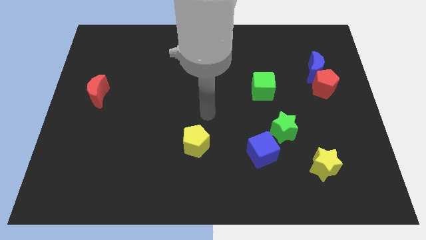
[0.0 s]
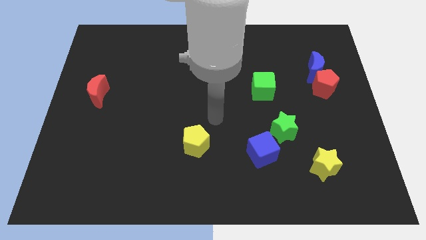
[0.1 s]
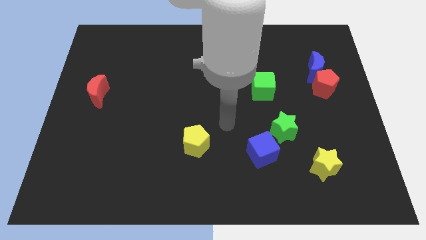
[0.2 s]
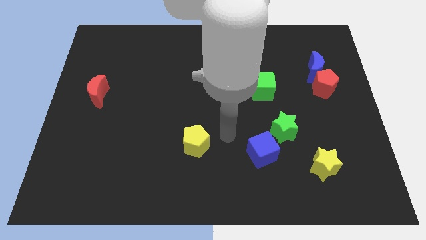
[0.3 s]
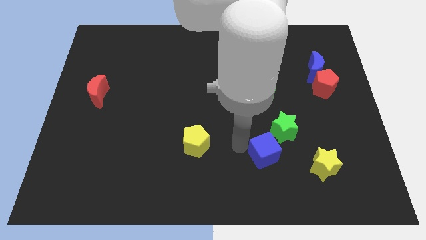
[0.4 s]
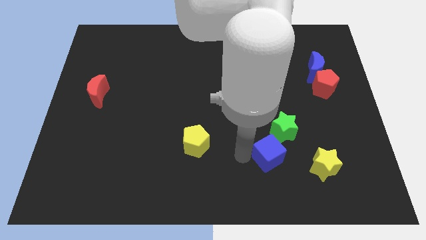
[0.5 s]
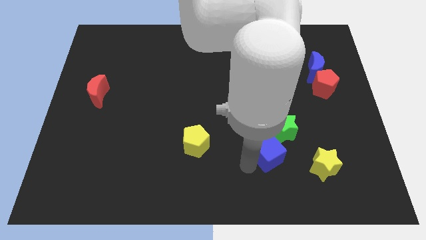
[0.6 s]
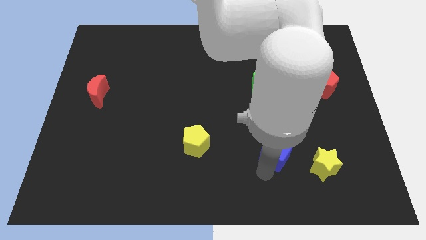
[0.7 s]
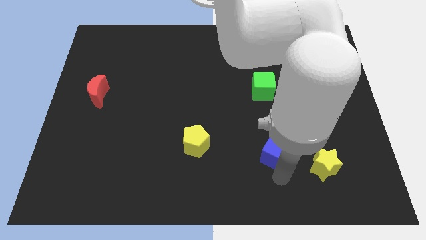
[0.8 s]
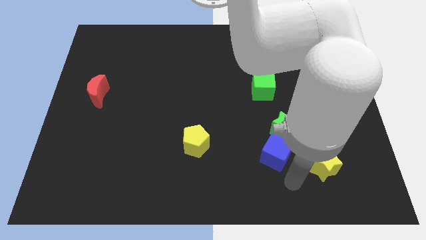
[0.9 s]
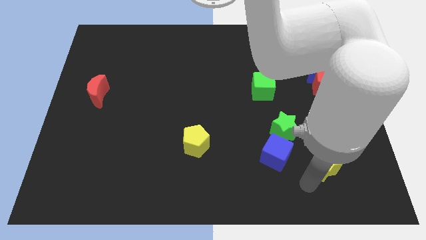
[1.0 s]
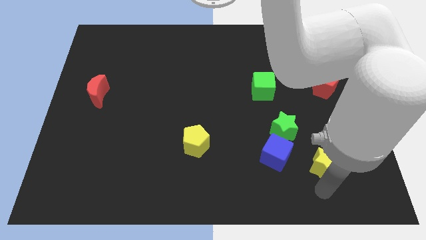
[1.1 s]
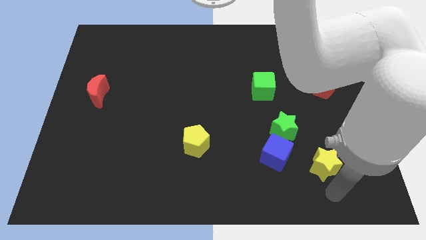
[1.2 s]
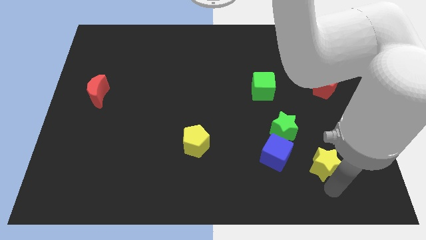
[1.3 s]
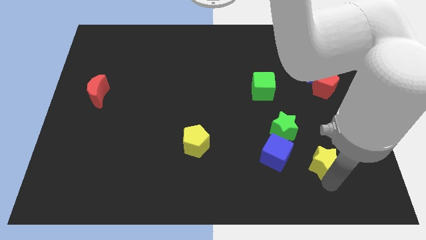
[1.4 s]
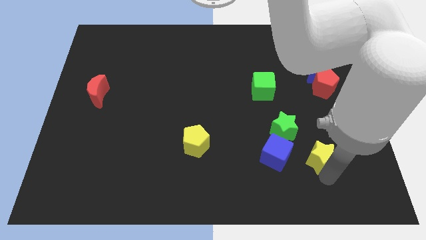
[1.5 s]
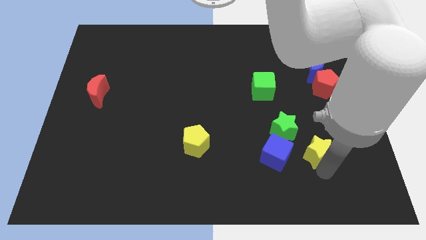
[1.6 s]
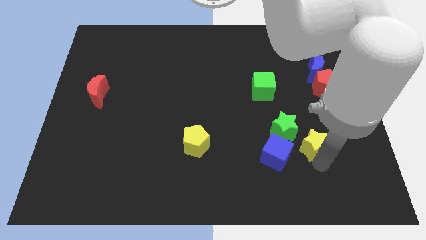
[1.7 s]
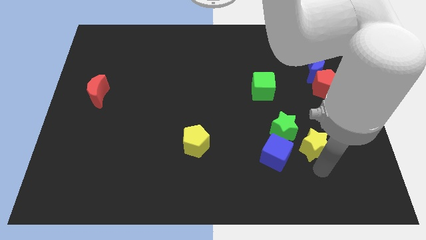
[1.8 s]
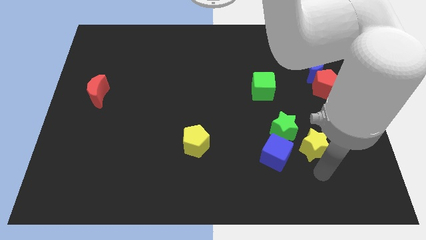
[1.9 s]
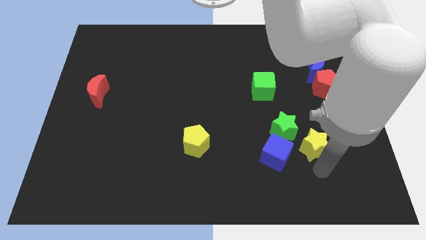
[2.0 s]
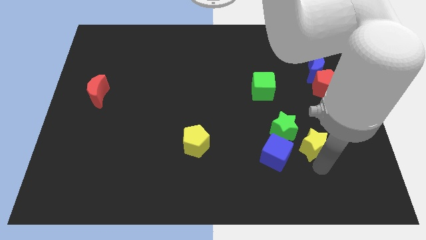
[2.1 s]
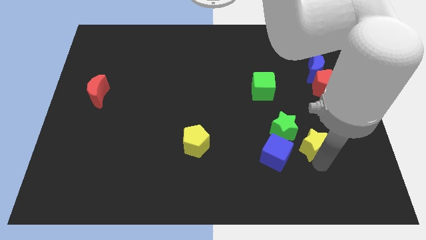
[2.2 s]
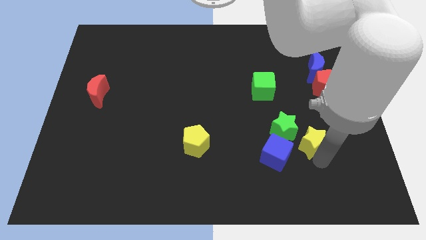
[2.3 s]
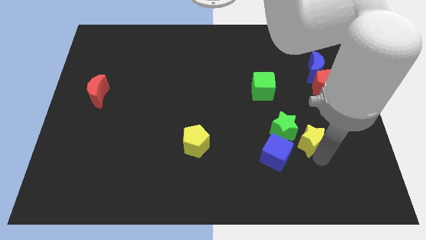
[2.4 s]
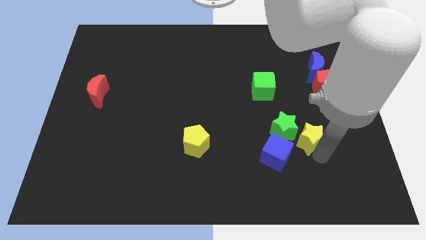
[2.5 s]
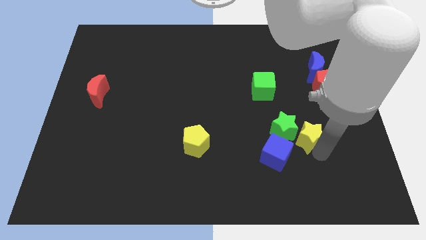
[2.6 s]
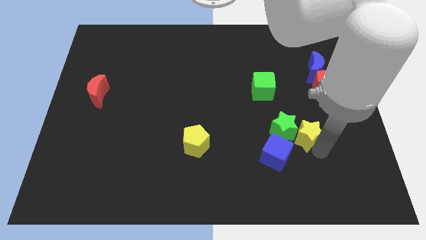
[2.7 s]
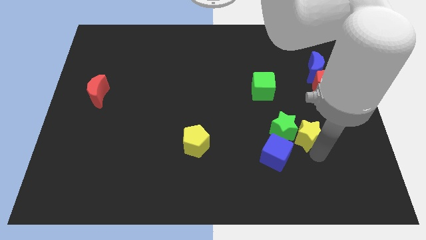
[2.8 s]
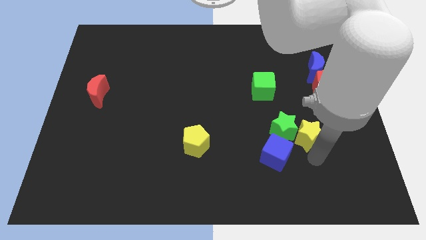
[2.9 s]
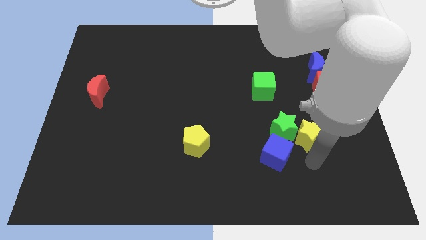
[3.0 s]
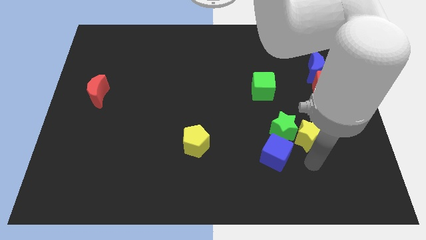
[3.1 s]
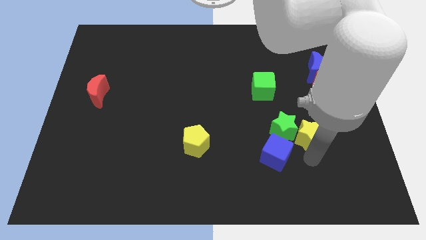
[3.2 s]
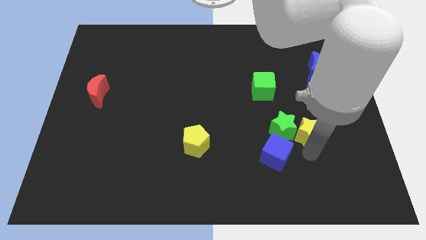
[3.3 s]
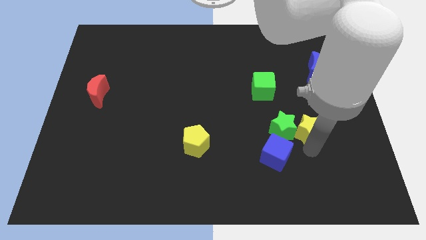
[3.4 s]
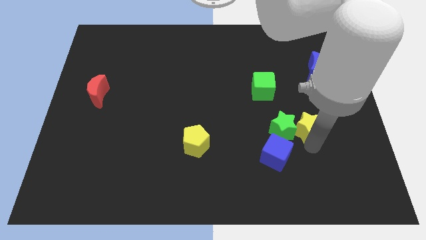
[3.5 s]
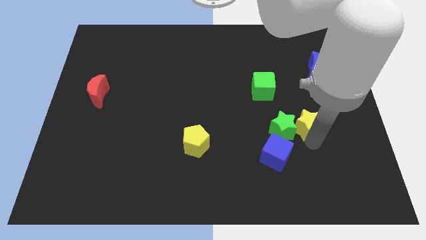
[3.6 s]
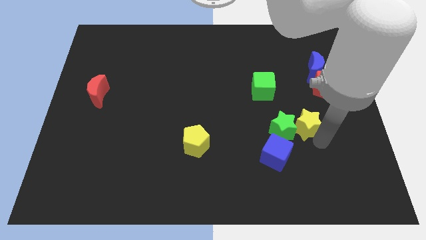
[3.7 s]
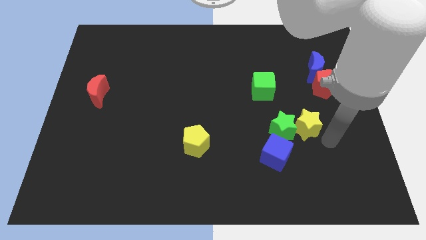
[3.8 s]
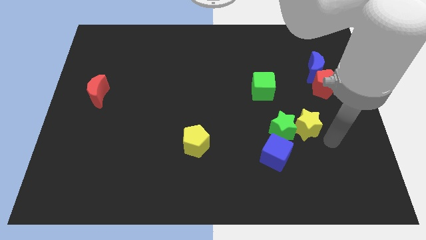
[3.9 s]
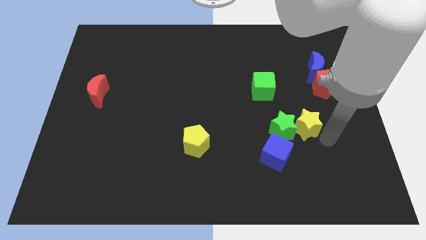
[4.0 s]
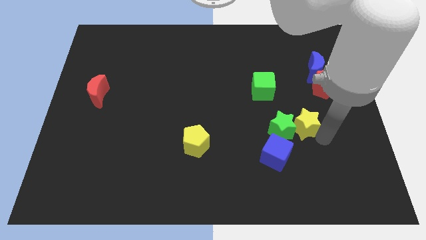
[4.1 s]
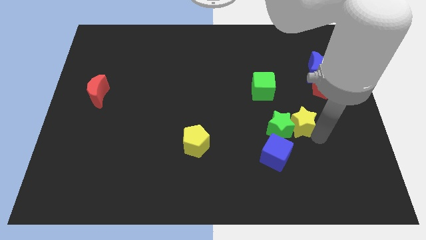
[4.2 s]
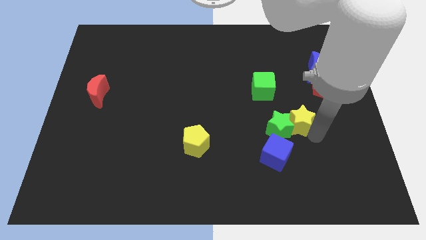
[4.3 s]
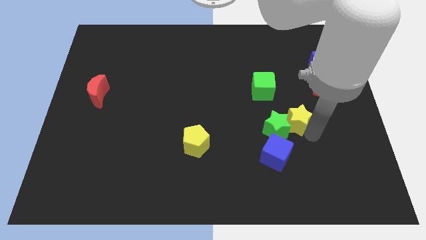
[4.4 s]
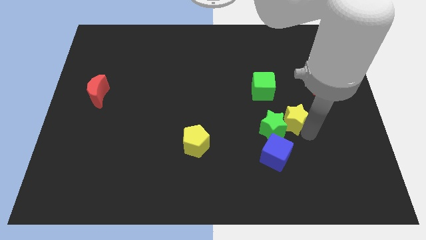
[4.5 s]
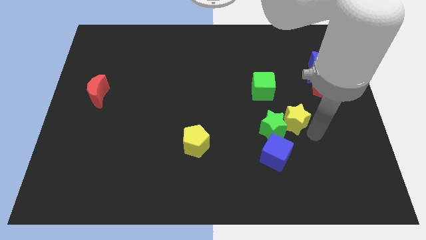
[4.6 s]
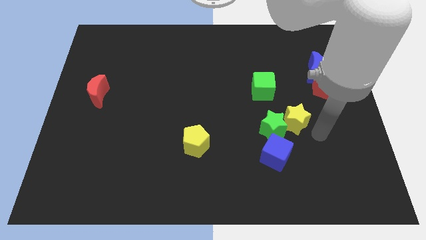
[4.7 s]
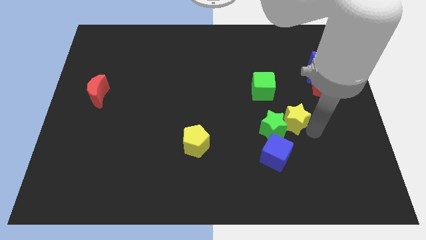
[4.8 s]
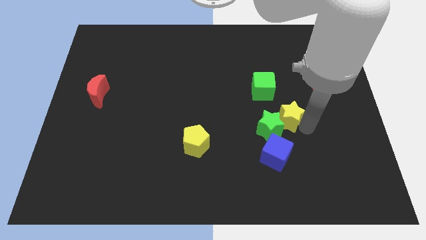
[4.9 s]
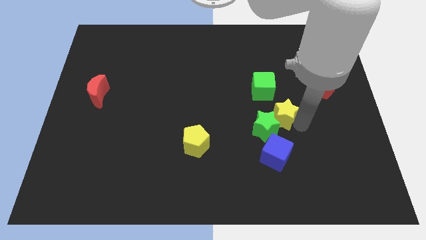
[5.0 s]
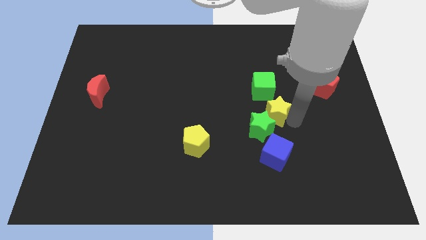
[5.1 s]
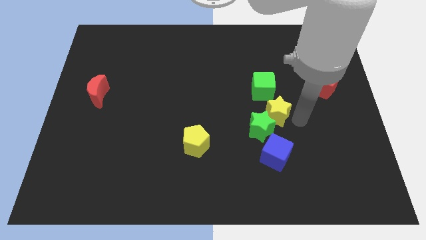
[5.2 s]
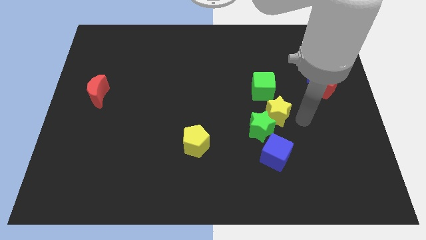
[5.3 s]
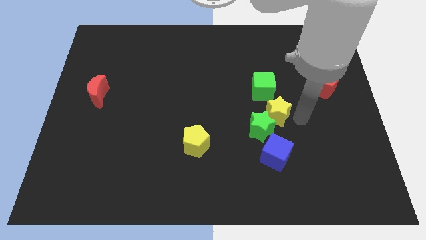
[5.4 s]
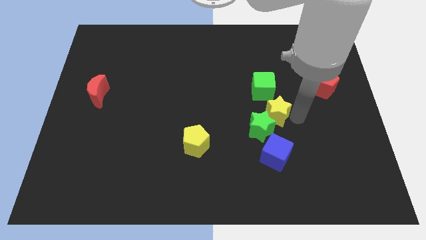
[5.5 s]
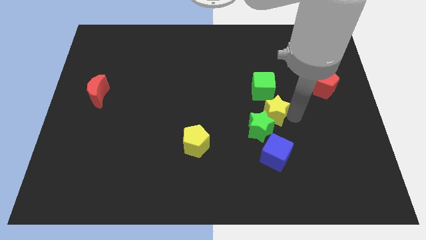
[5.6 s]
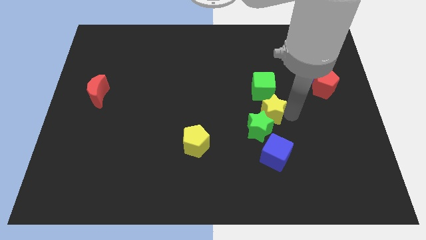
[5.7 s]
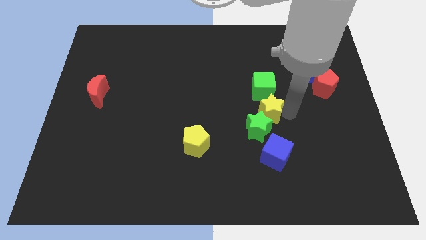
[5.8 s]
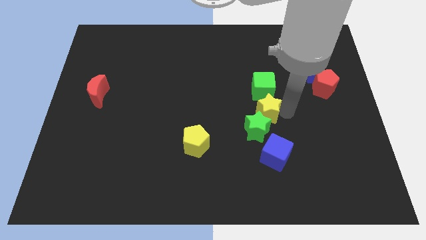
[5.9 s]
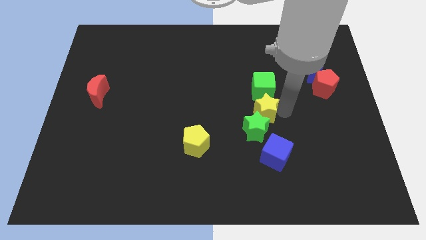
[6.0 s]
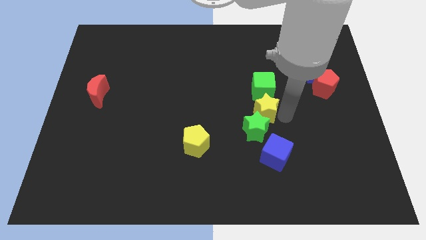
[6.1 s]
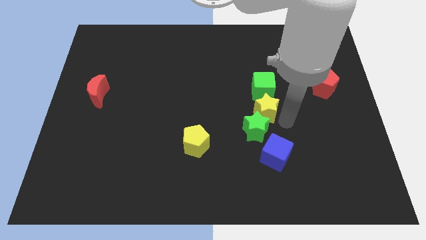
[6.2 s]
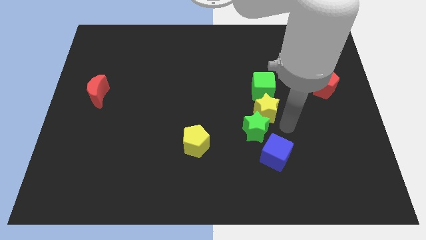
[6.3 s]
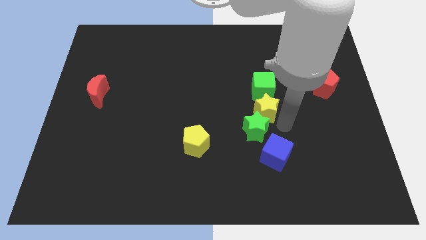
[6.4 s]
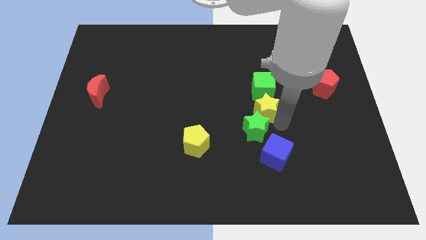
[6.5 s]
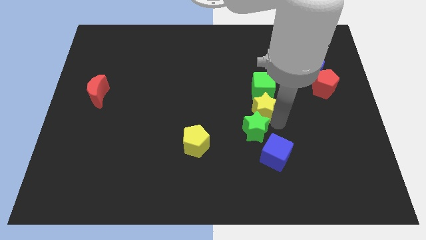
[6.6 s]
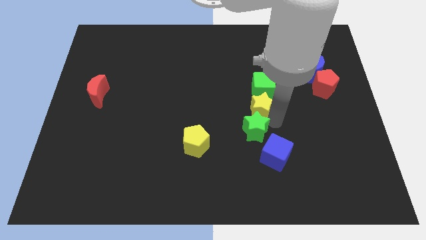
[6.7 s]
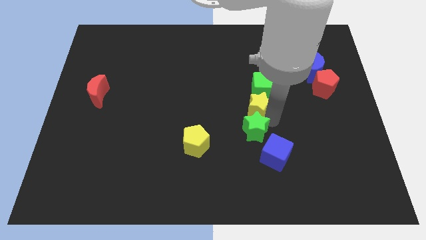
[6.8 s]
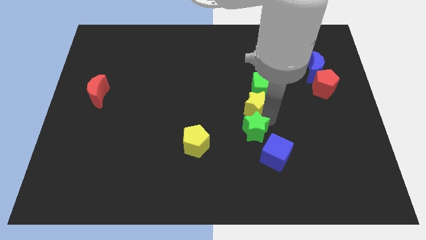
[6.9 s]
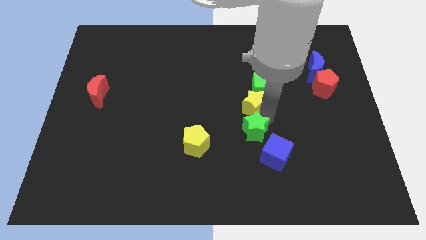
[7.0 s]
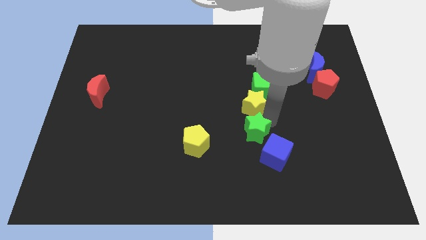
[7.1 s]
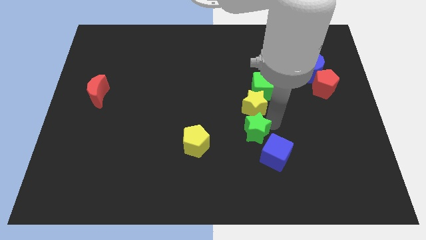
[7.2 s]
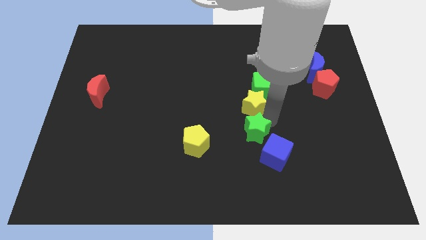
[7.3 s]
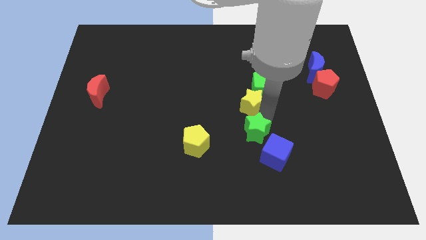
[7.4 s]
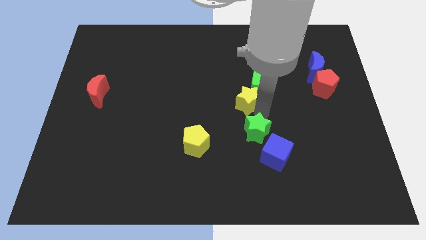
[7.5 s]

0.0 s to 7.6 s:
slide the yellow star just left of the green cube

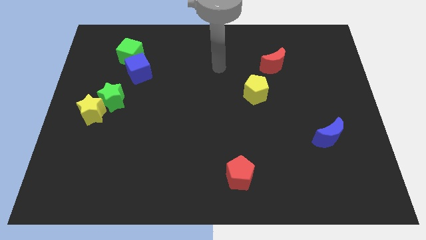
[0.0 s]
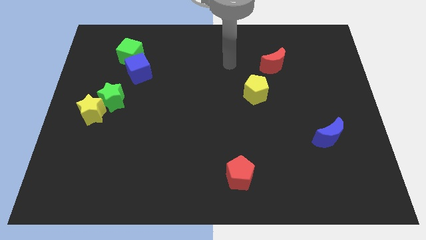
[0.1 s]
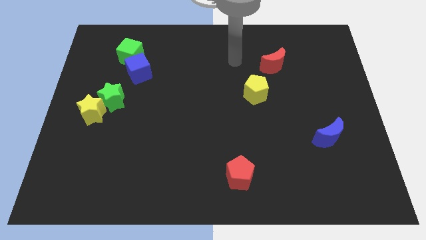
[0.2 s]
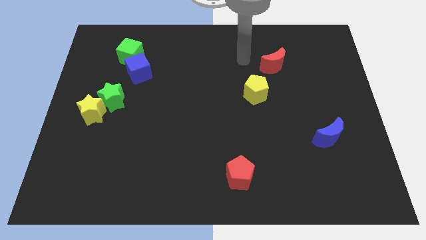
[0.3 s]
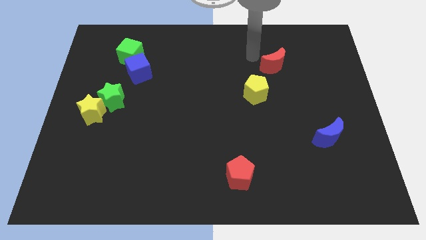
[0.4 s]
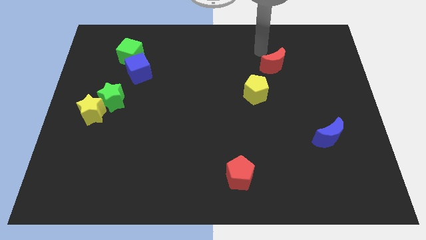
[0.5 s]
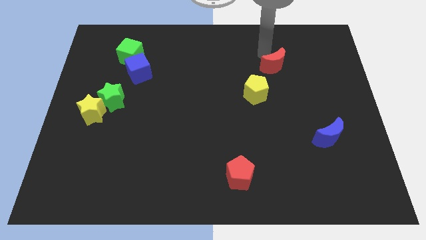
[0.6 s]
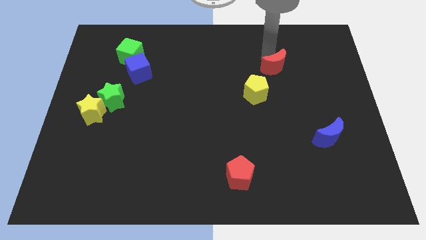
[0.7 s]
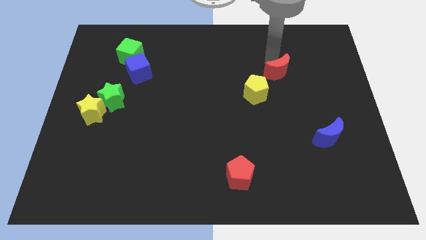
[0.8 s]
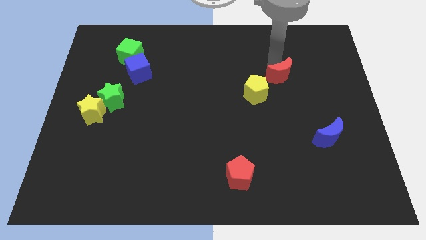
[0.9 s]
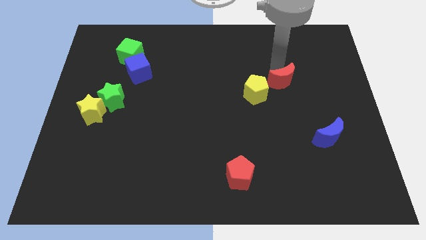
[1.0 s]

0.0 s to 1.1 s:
push the red moon right of the yellow pentagon
